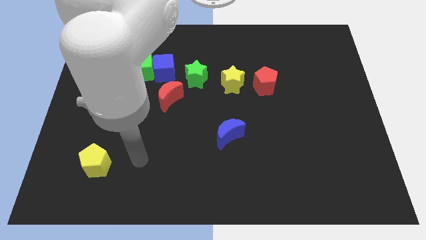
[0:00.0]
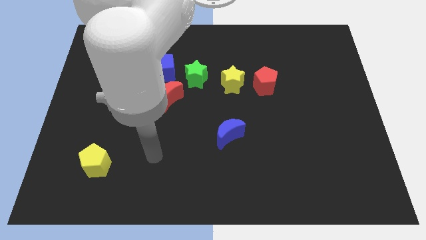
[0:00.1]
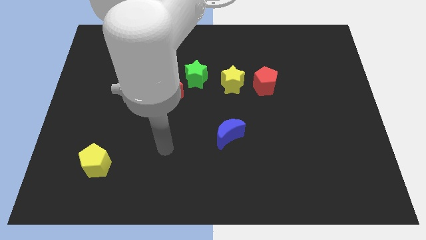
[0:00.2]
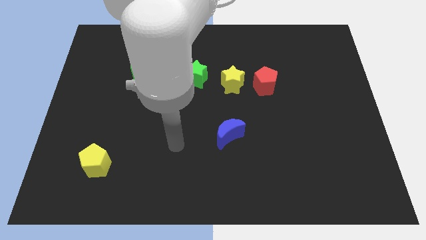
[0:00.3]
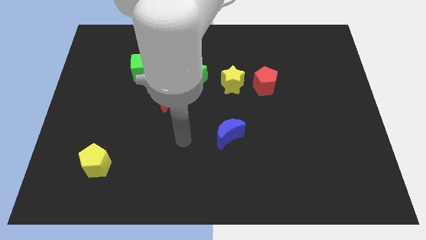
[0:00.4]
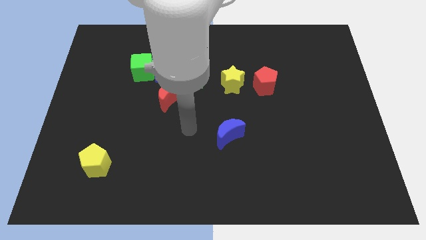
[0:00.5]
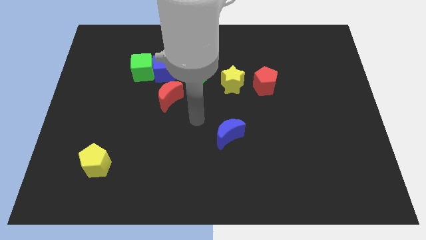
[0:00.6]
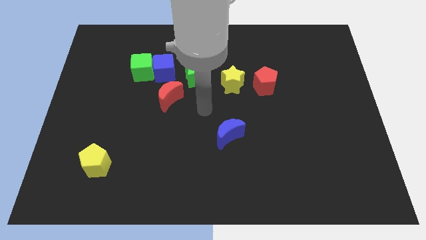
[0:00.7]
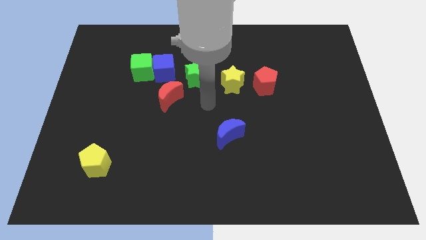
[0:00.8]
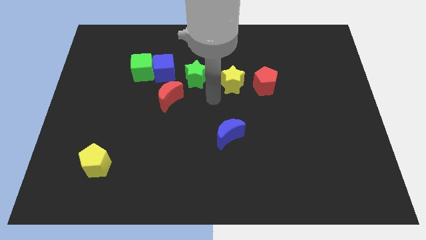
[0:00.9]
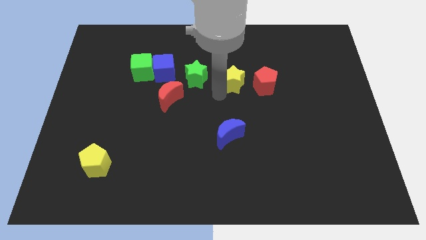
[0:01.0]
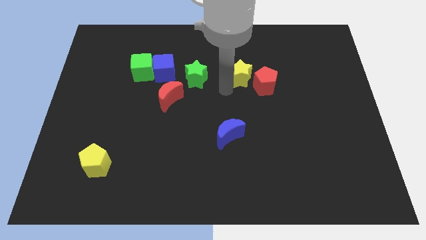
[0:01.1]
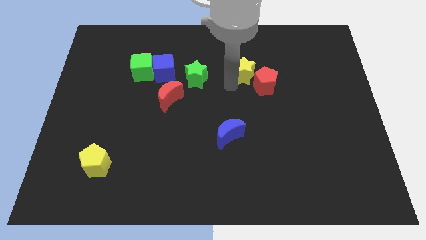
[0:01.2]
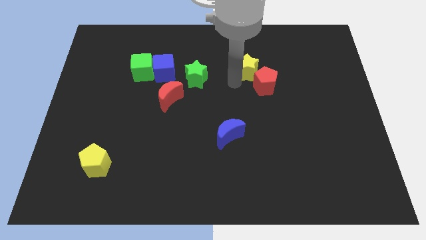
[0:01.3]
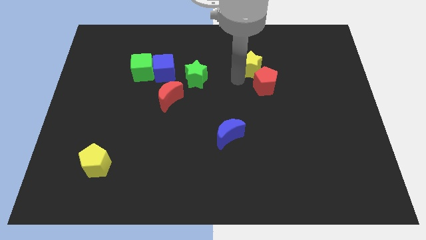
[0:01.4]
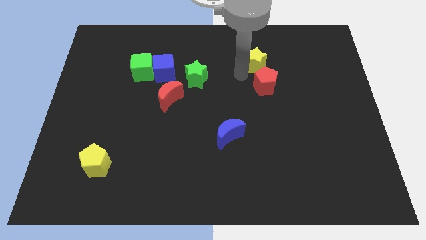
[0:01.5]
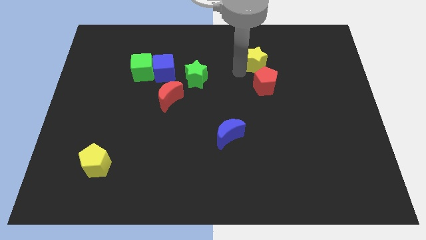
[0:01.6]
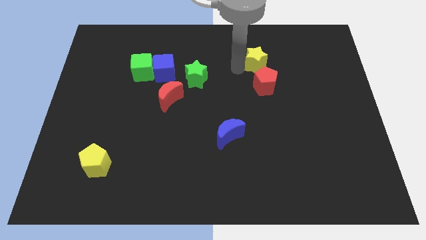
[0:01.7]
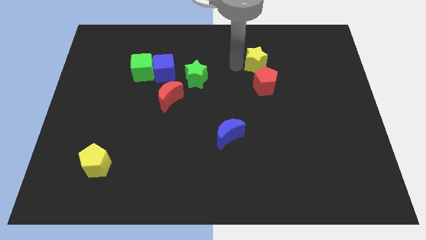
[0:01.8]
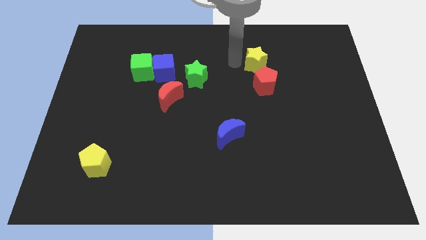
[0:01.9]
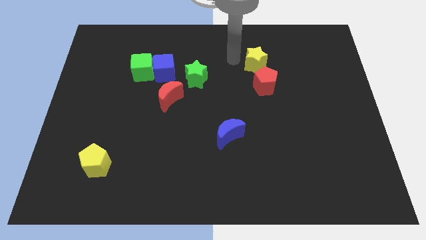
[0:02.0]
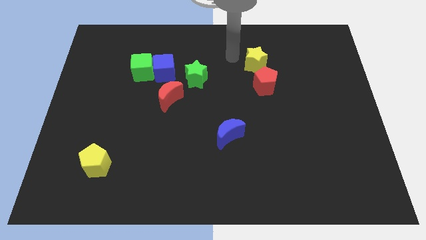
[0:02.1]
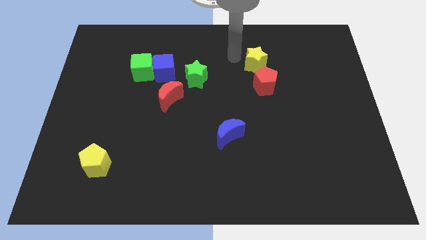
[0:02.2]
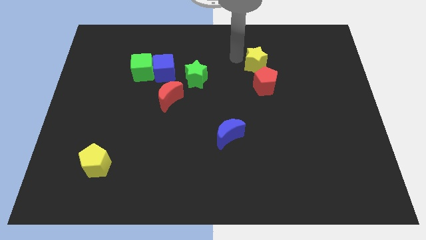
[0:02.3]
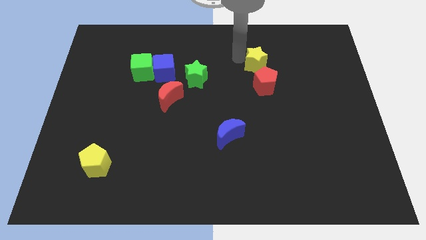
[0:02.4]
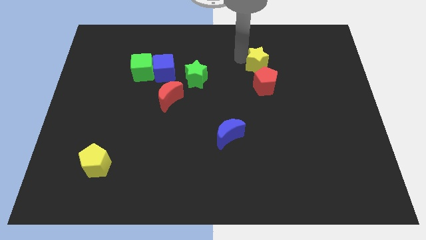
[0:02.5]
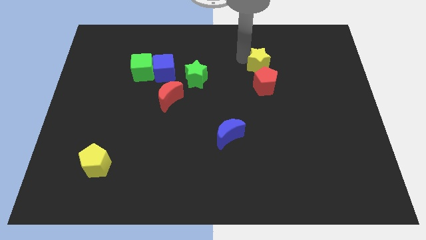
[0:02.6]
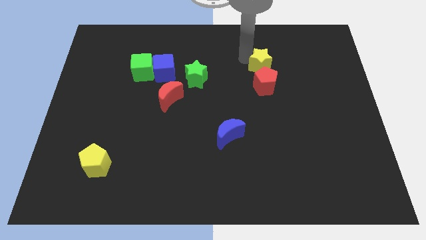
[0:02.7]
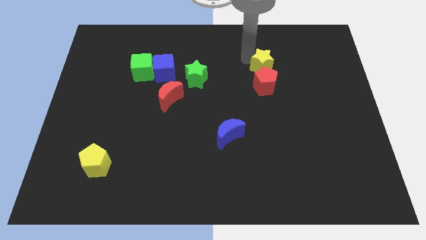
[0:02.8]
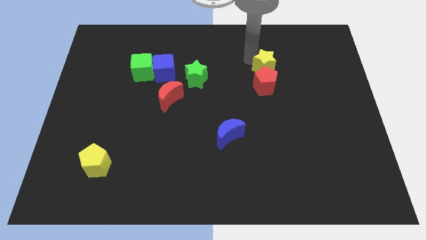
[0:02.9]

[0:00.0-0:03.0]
push the yellow star a little right

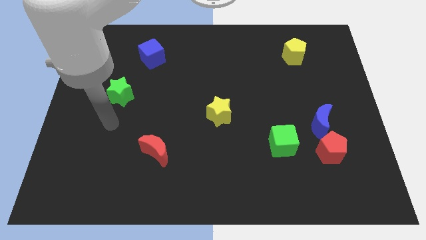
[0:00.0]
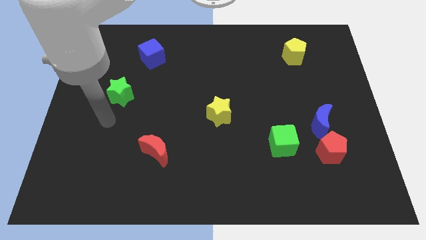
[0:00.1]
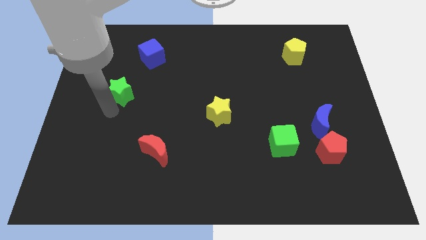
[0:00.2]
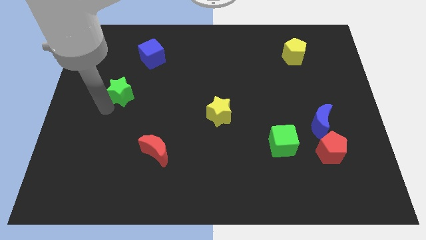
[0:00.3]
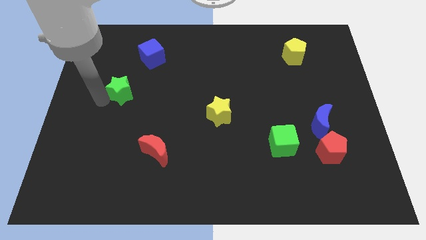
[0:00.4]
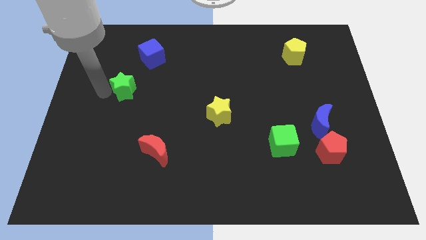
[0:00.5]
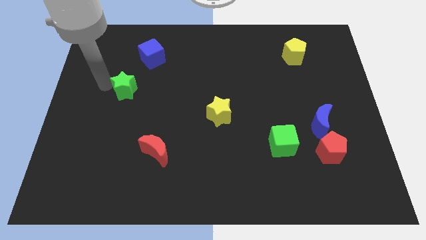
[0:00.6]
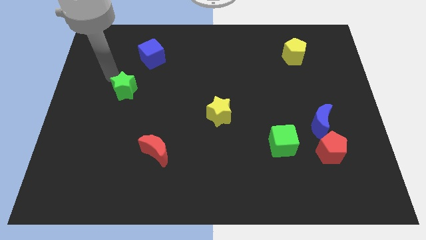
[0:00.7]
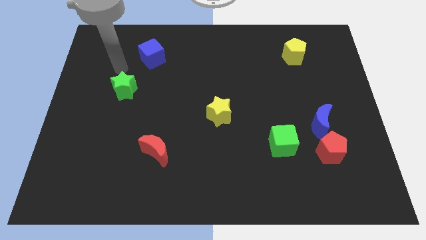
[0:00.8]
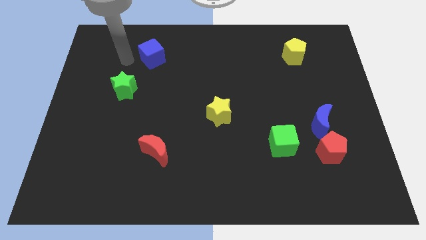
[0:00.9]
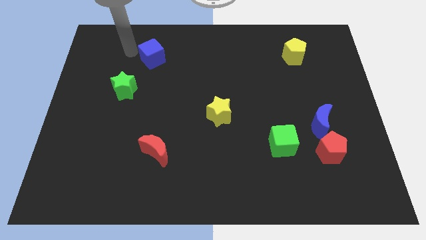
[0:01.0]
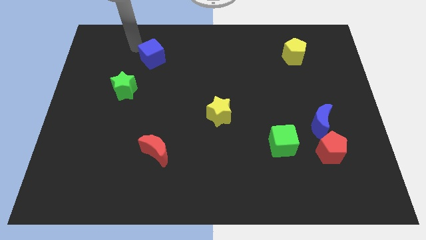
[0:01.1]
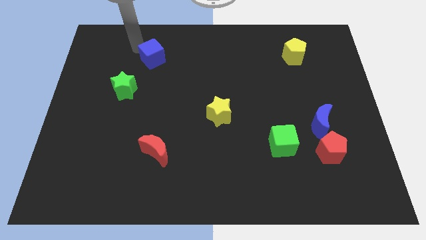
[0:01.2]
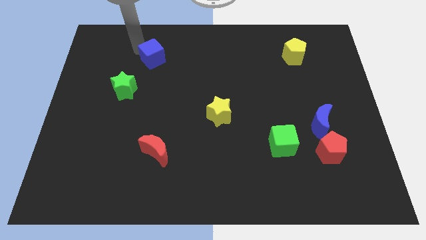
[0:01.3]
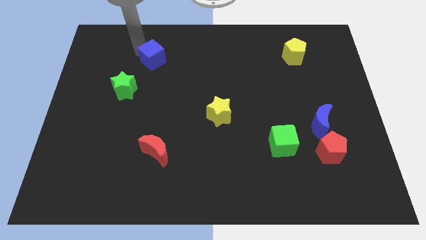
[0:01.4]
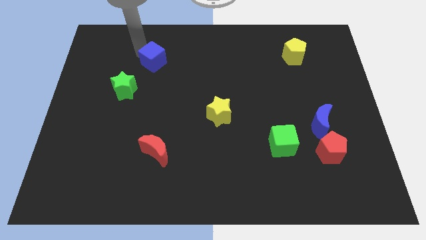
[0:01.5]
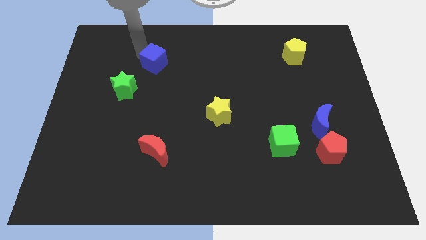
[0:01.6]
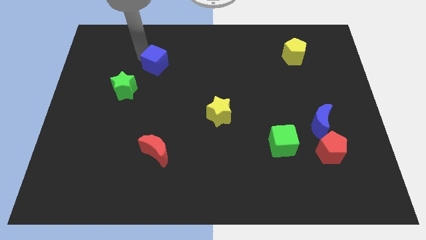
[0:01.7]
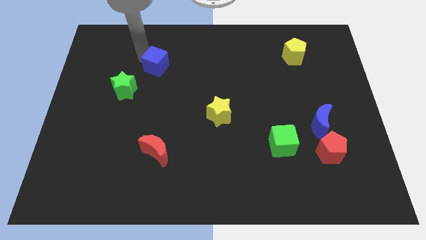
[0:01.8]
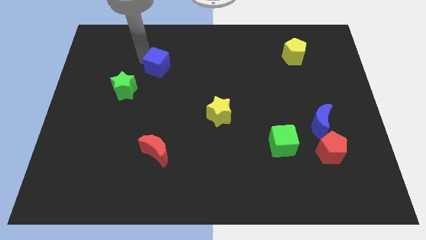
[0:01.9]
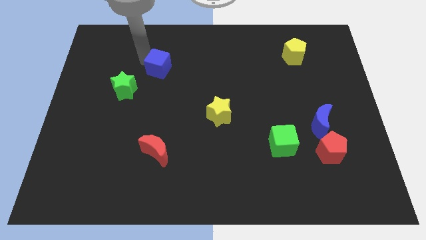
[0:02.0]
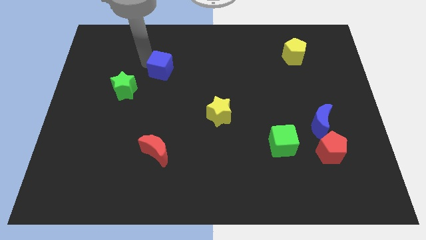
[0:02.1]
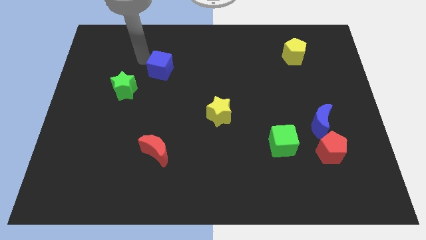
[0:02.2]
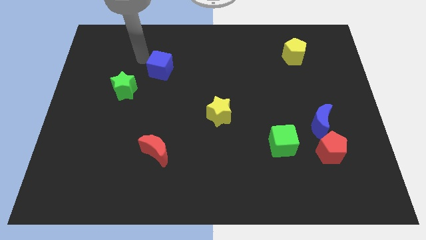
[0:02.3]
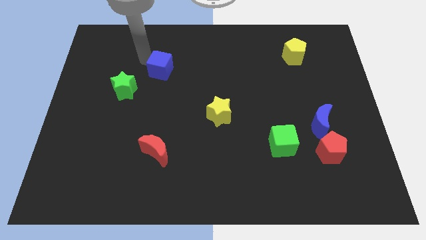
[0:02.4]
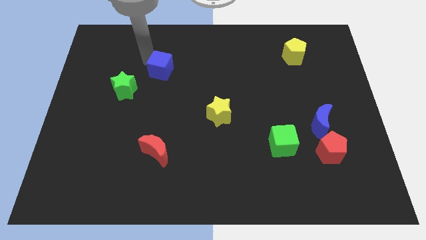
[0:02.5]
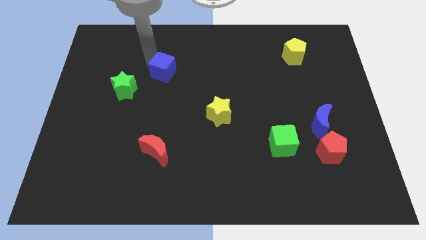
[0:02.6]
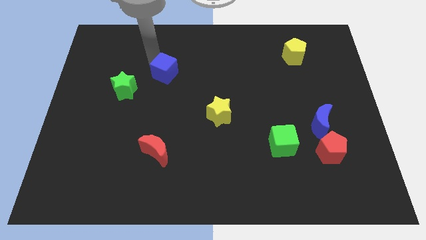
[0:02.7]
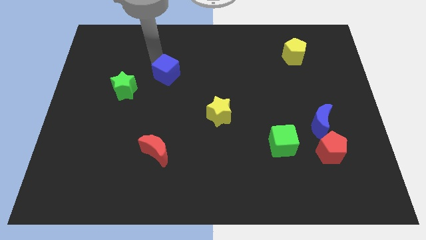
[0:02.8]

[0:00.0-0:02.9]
slightly slide the blue cube down and right diagonally

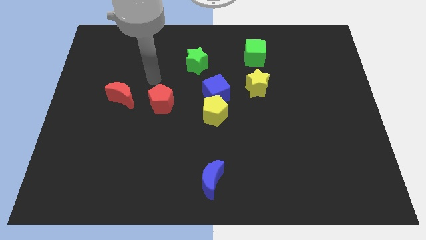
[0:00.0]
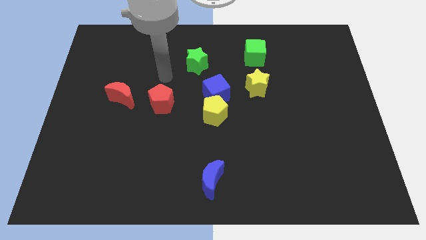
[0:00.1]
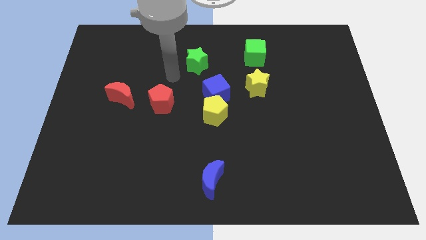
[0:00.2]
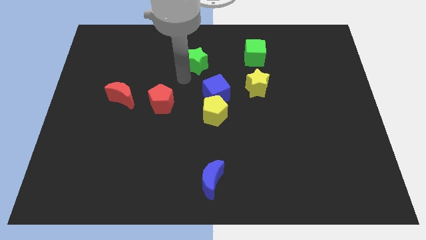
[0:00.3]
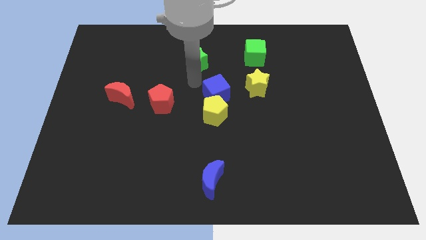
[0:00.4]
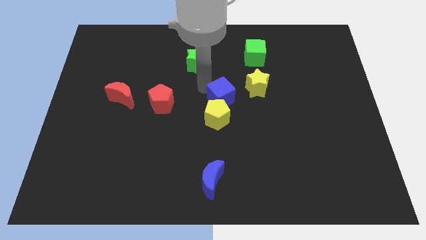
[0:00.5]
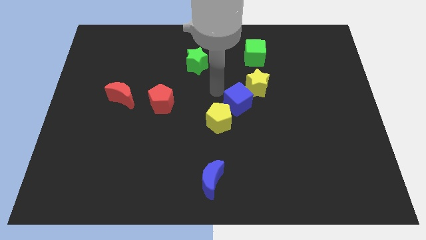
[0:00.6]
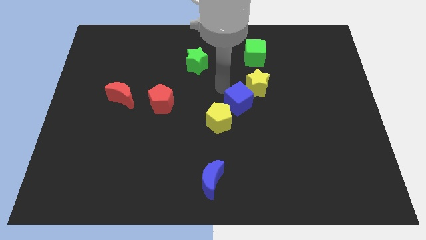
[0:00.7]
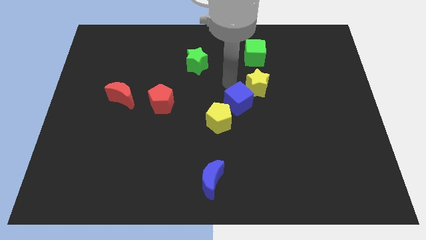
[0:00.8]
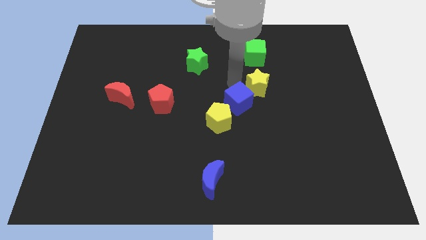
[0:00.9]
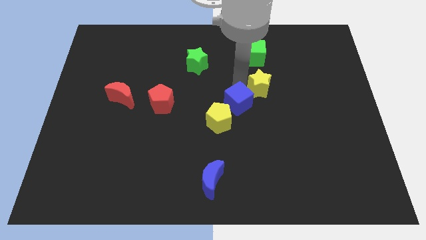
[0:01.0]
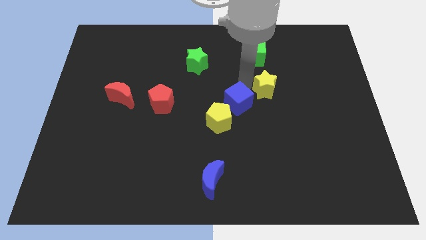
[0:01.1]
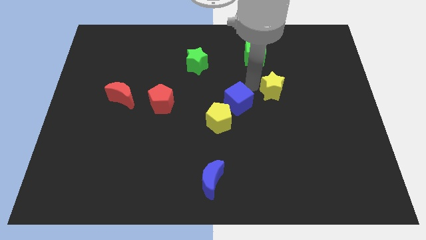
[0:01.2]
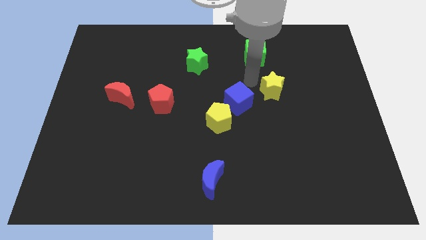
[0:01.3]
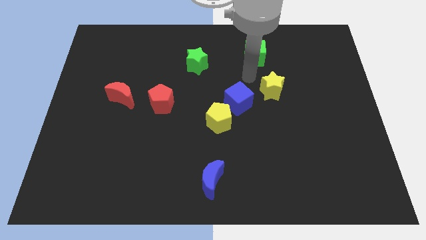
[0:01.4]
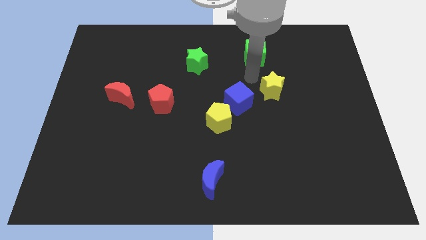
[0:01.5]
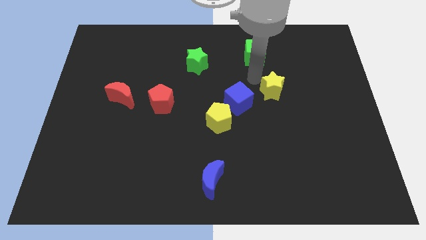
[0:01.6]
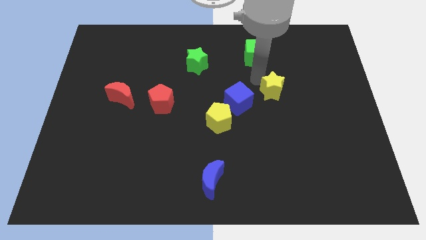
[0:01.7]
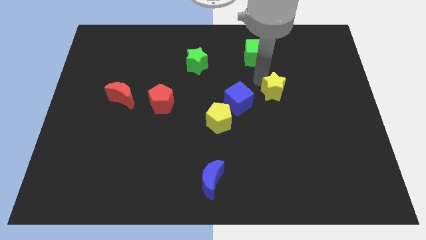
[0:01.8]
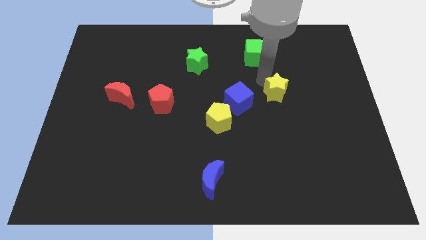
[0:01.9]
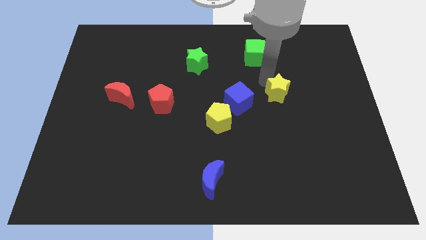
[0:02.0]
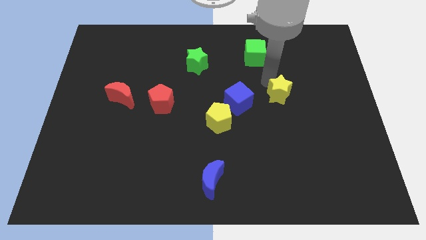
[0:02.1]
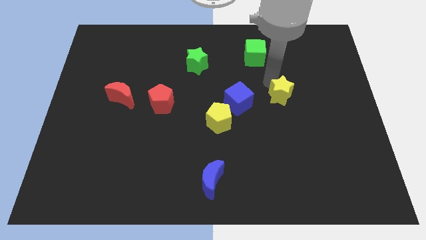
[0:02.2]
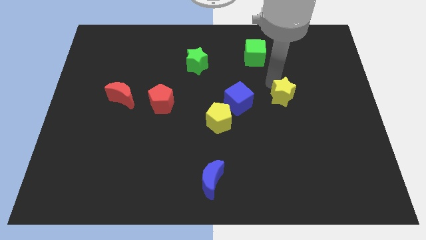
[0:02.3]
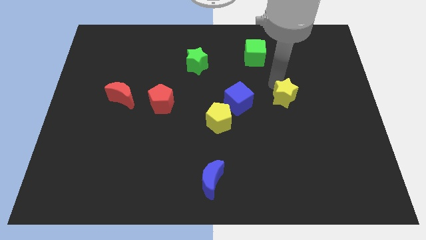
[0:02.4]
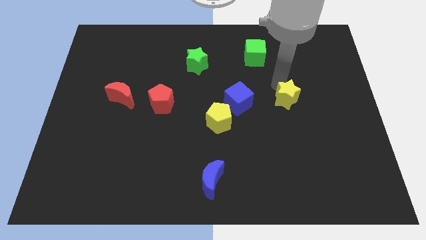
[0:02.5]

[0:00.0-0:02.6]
slightly slide the yellow star down and to the right diagonally
